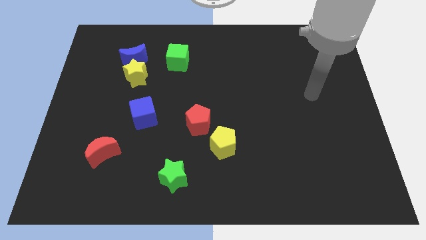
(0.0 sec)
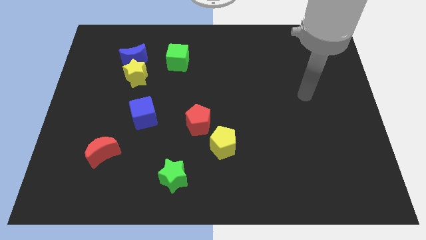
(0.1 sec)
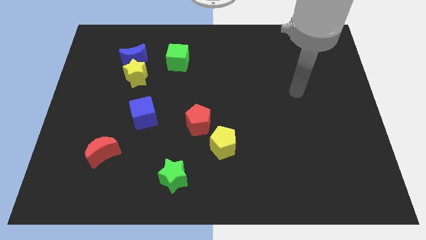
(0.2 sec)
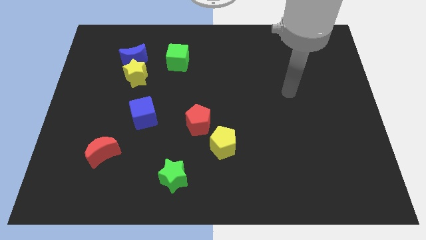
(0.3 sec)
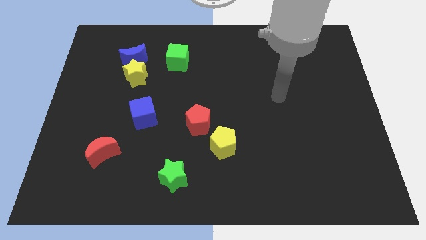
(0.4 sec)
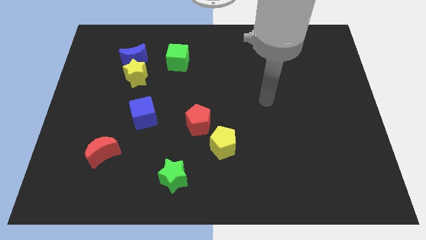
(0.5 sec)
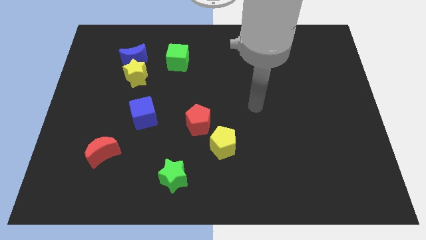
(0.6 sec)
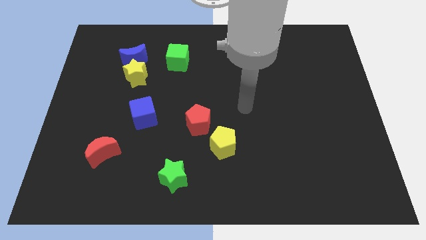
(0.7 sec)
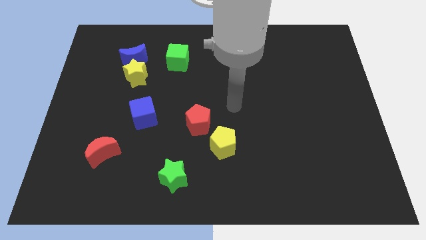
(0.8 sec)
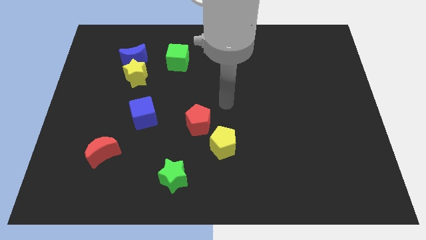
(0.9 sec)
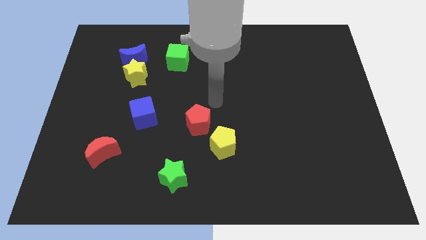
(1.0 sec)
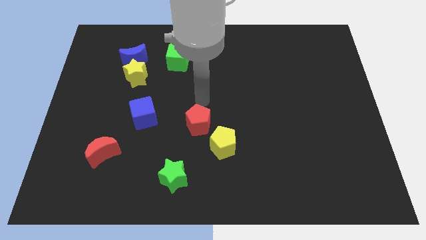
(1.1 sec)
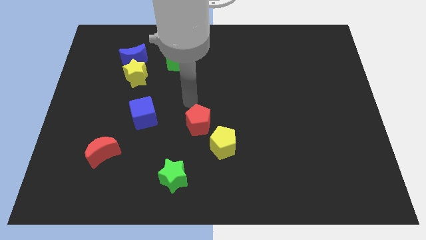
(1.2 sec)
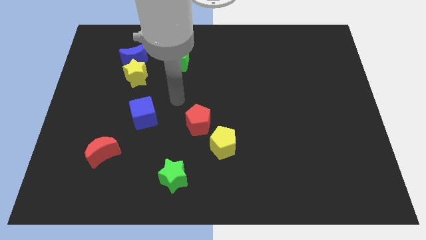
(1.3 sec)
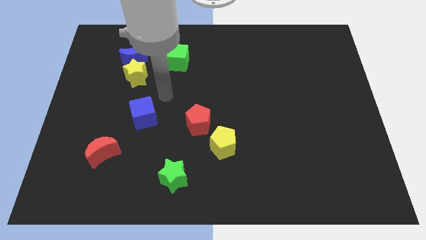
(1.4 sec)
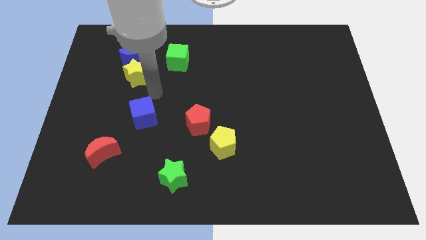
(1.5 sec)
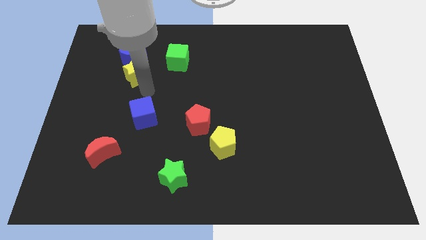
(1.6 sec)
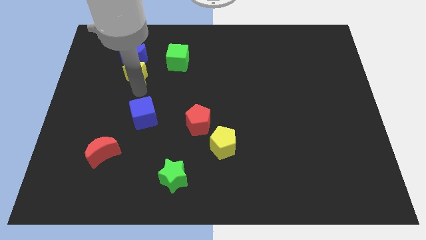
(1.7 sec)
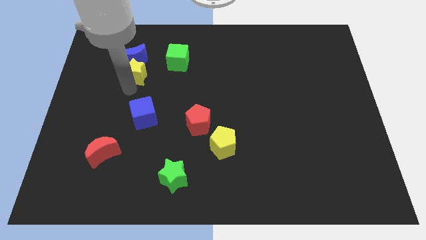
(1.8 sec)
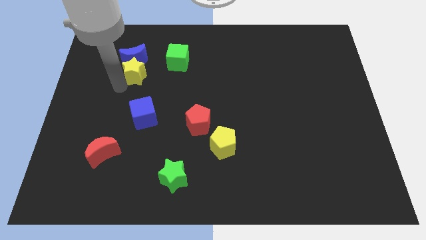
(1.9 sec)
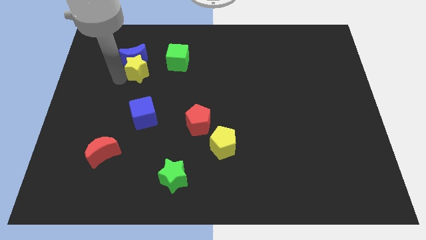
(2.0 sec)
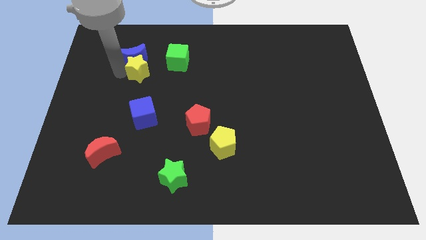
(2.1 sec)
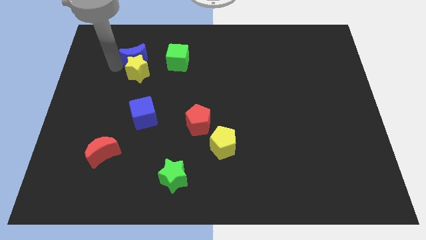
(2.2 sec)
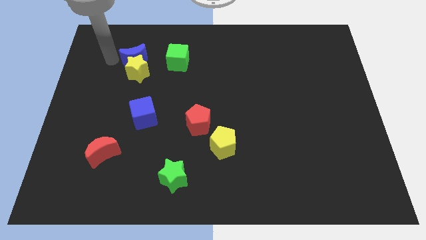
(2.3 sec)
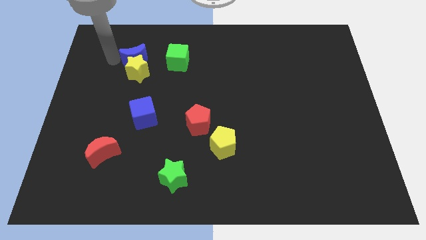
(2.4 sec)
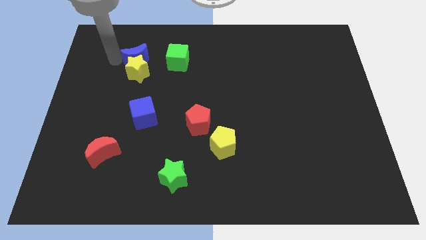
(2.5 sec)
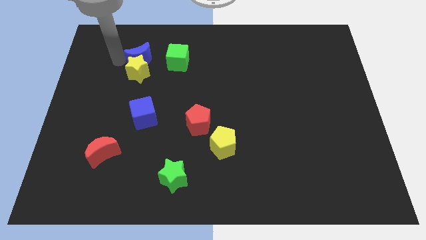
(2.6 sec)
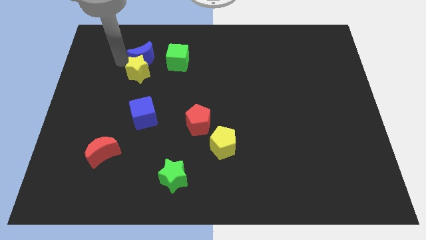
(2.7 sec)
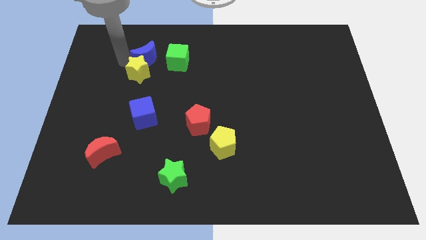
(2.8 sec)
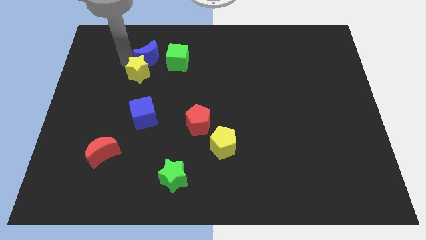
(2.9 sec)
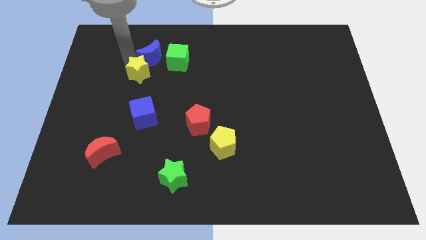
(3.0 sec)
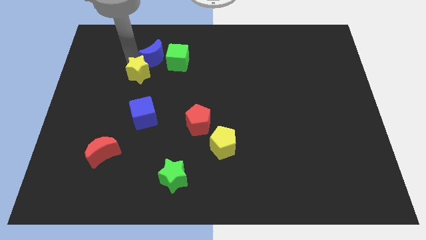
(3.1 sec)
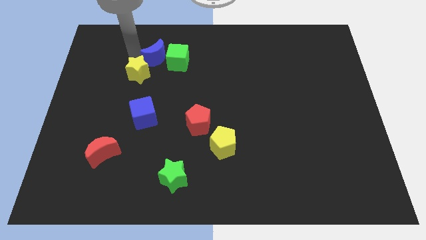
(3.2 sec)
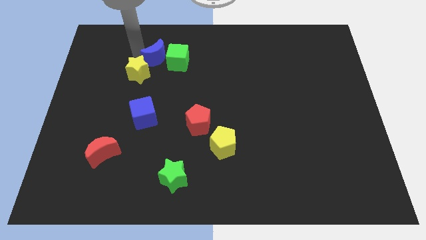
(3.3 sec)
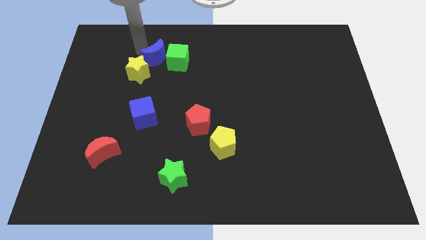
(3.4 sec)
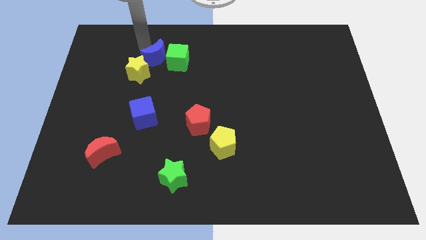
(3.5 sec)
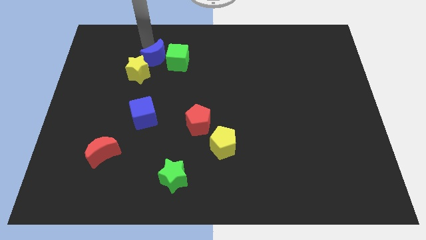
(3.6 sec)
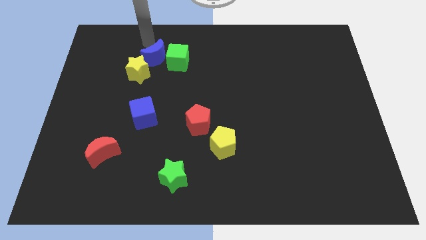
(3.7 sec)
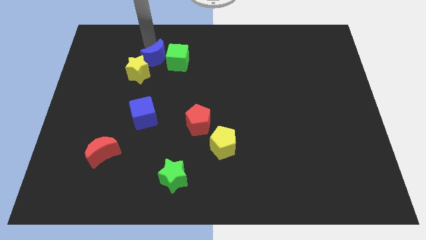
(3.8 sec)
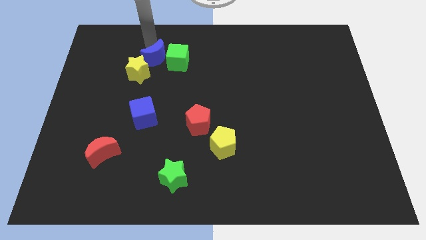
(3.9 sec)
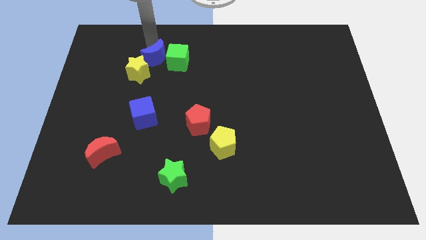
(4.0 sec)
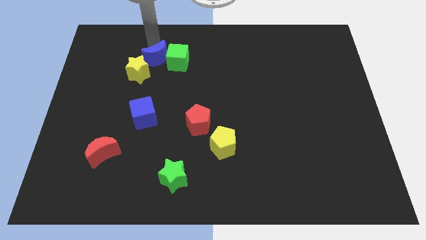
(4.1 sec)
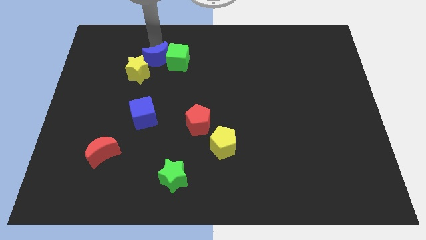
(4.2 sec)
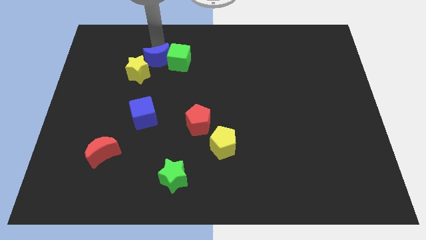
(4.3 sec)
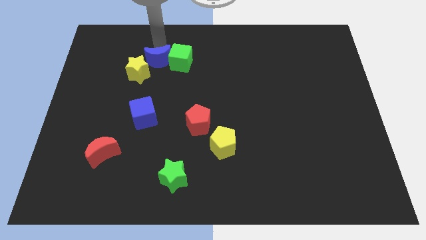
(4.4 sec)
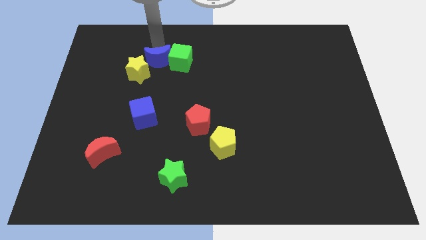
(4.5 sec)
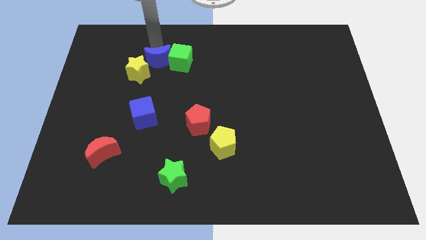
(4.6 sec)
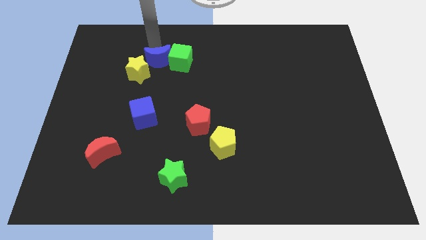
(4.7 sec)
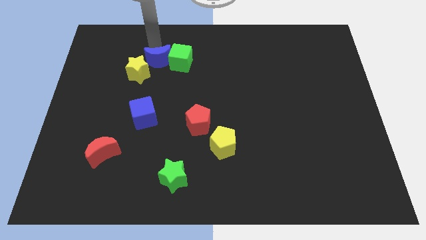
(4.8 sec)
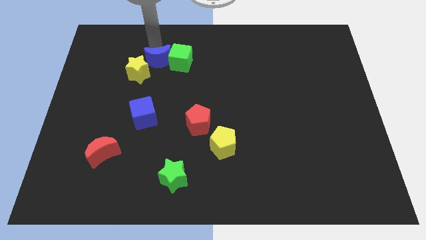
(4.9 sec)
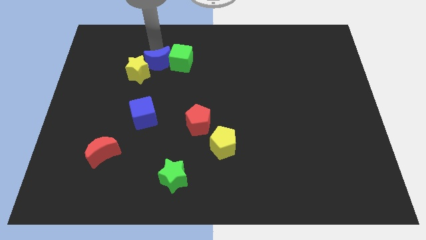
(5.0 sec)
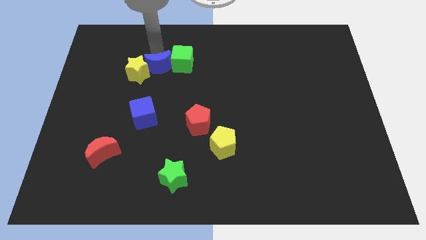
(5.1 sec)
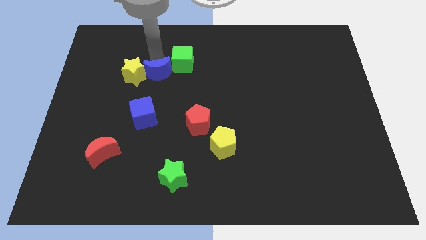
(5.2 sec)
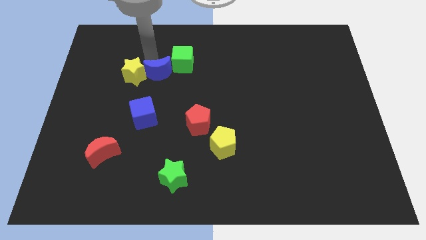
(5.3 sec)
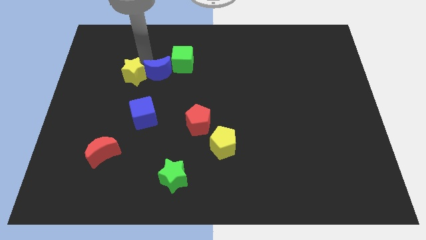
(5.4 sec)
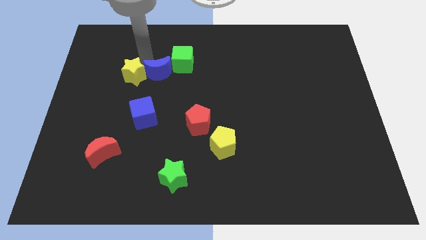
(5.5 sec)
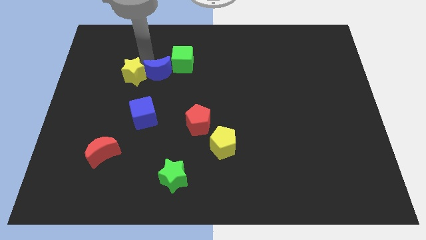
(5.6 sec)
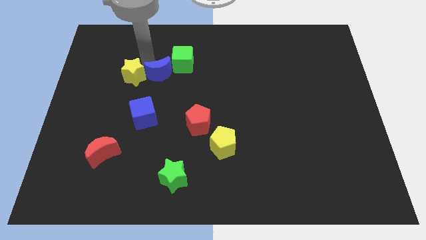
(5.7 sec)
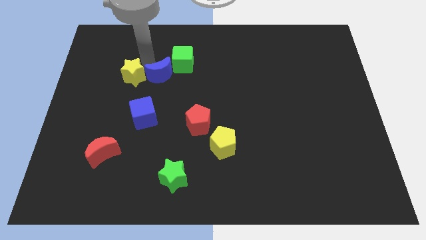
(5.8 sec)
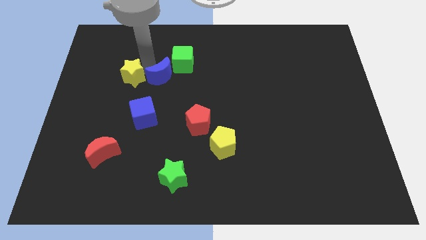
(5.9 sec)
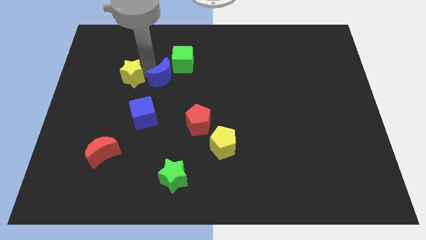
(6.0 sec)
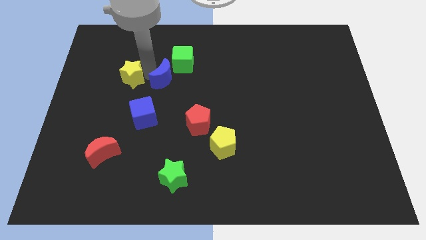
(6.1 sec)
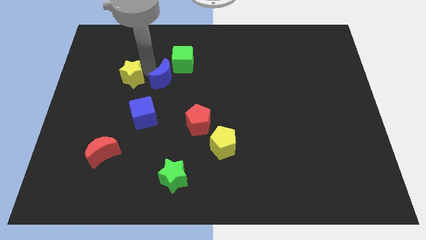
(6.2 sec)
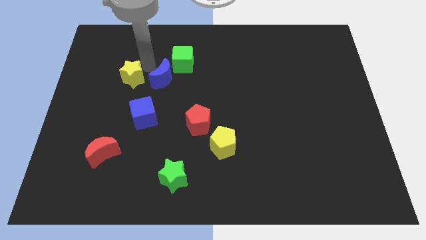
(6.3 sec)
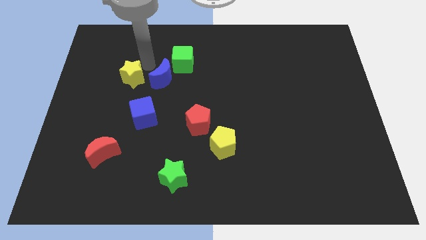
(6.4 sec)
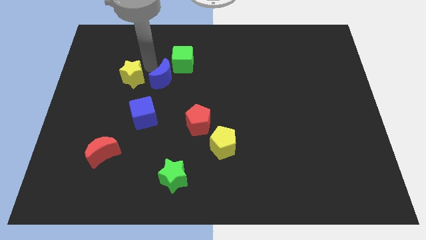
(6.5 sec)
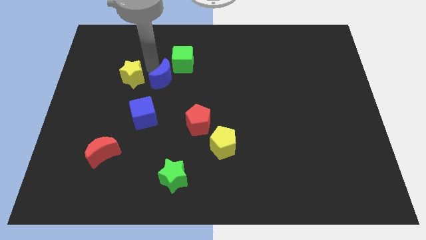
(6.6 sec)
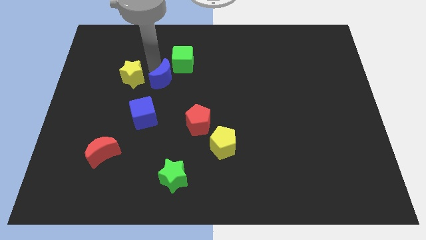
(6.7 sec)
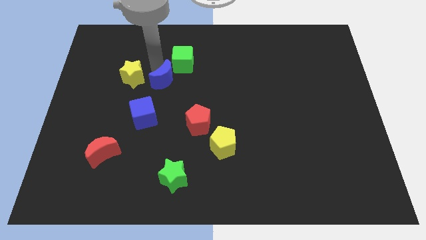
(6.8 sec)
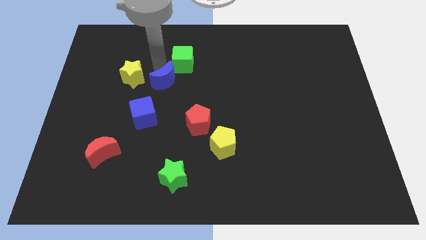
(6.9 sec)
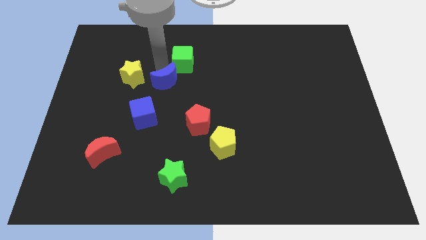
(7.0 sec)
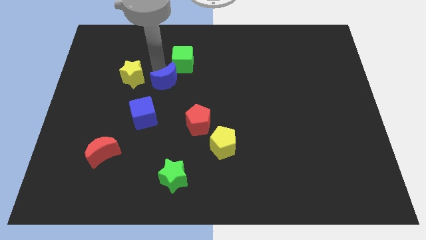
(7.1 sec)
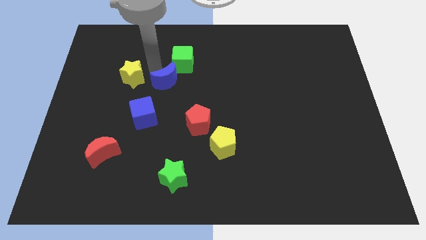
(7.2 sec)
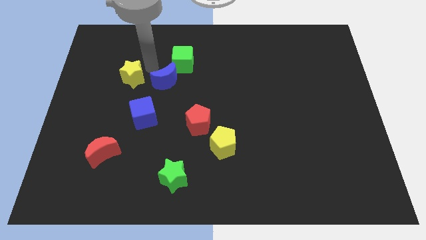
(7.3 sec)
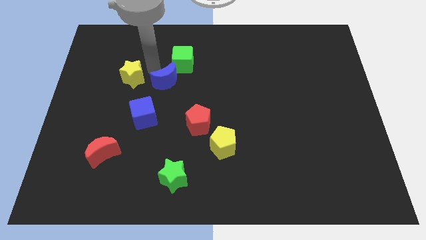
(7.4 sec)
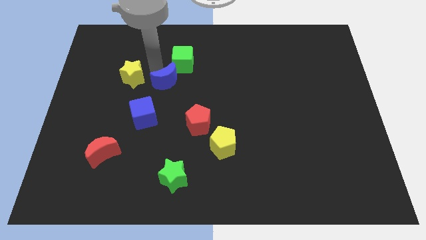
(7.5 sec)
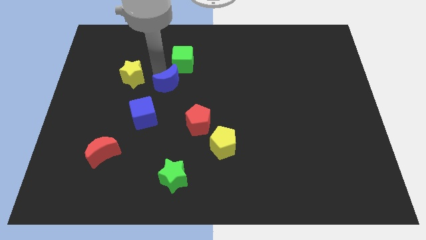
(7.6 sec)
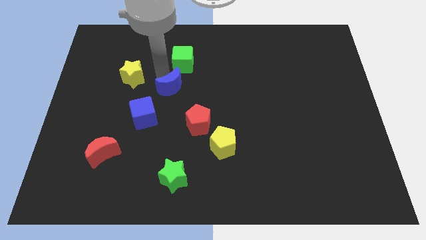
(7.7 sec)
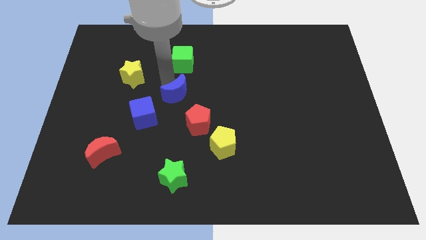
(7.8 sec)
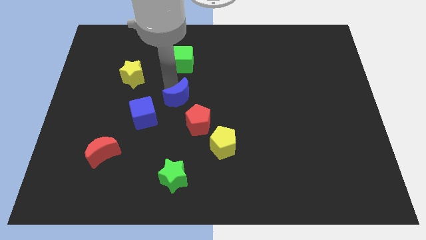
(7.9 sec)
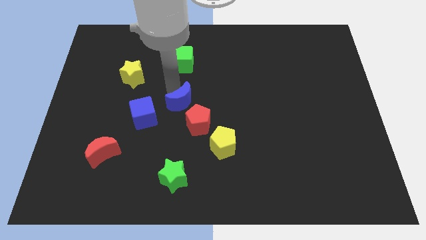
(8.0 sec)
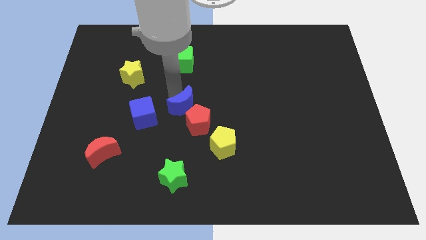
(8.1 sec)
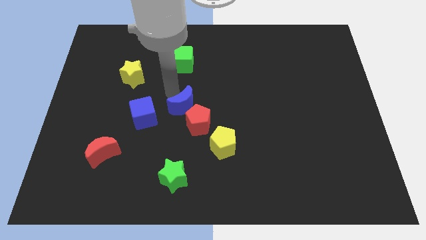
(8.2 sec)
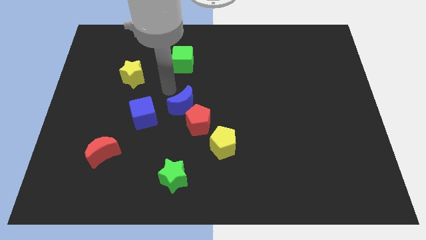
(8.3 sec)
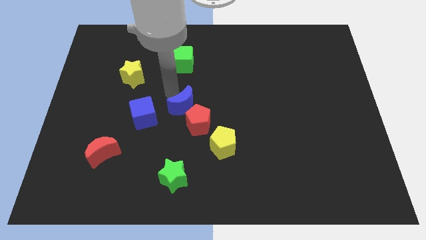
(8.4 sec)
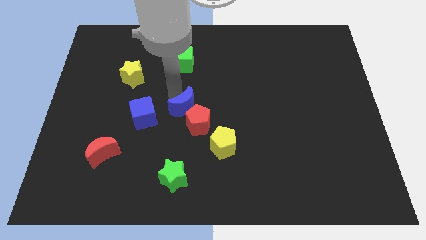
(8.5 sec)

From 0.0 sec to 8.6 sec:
put the blue moon next to the red pentagon
